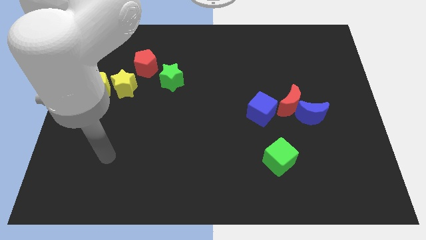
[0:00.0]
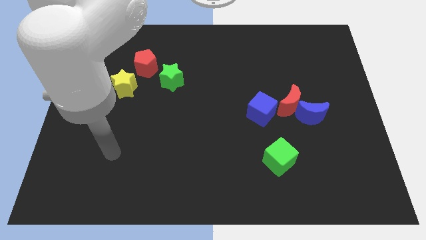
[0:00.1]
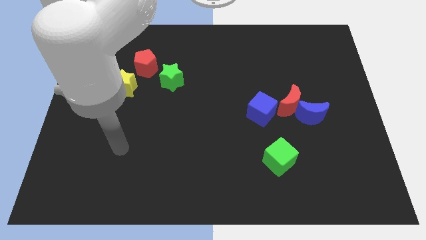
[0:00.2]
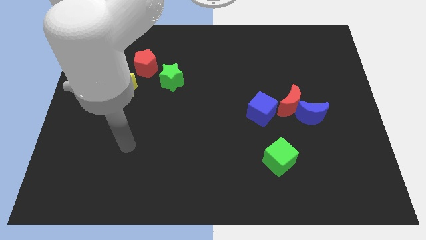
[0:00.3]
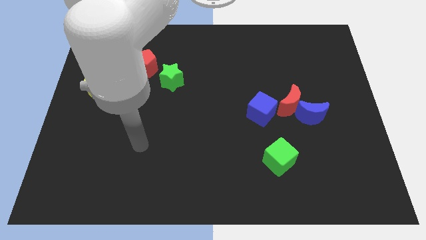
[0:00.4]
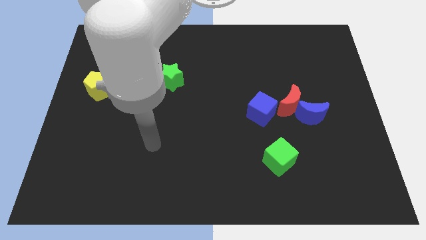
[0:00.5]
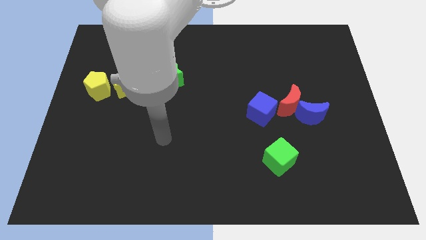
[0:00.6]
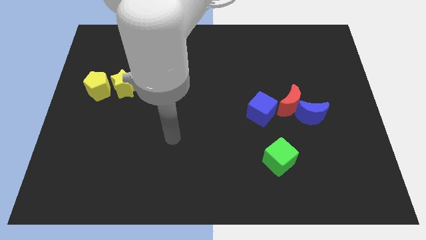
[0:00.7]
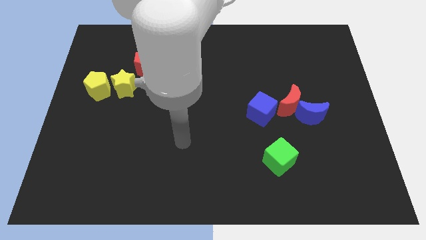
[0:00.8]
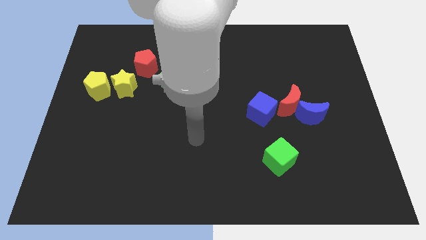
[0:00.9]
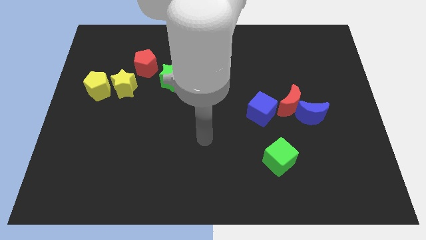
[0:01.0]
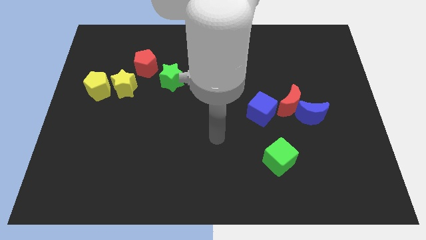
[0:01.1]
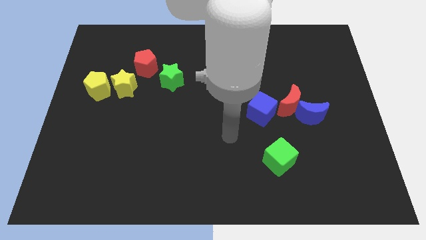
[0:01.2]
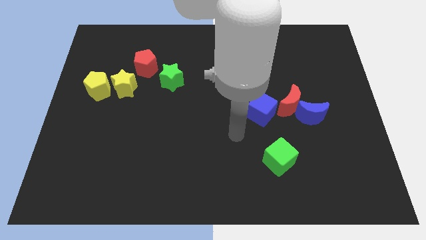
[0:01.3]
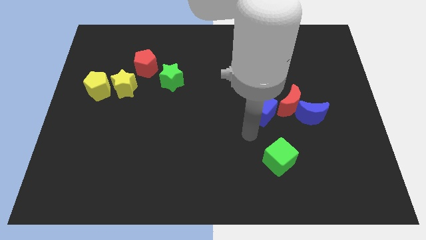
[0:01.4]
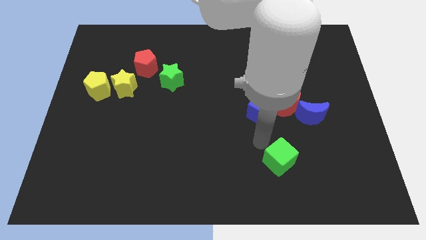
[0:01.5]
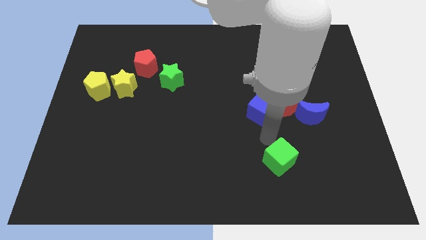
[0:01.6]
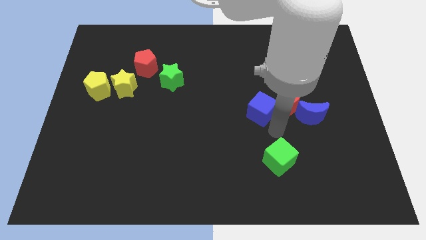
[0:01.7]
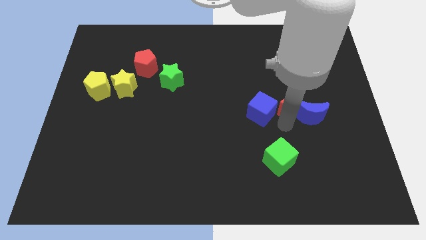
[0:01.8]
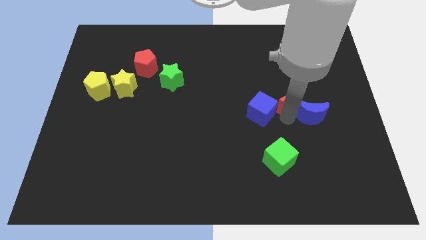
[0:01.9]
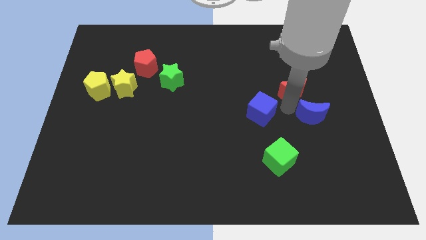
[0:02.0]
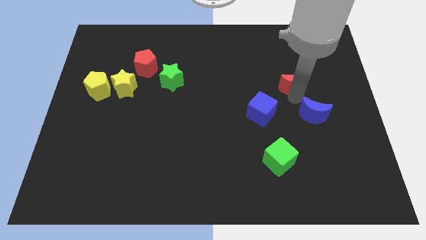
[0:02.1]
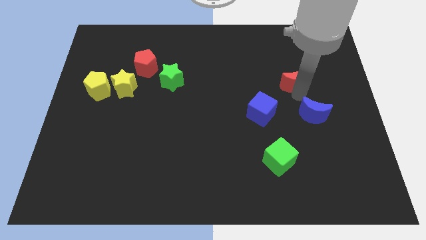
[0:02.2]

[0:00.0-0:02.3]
pull the blue moon apart from the red moon

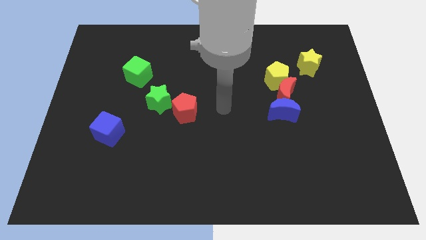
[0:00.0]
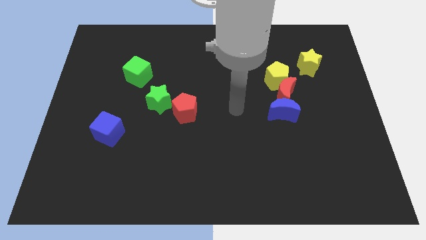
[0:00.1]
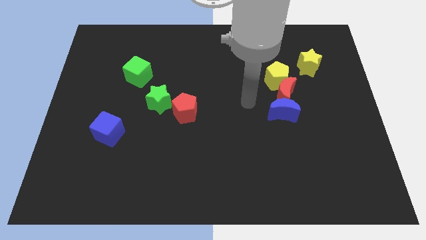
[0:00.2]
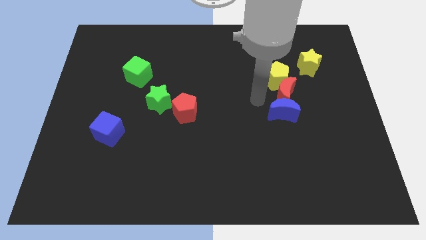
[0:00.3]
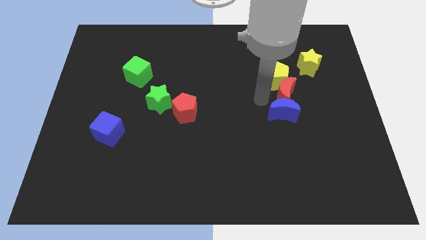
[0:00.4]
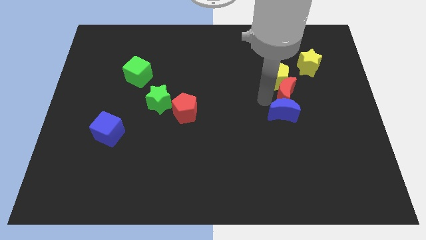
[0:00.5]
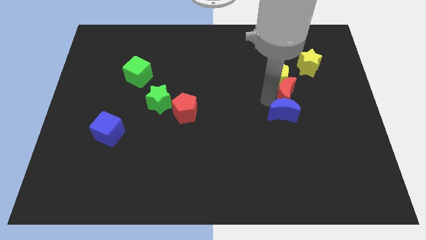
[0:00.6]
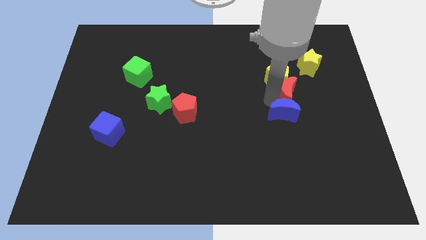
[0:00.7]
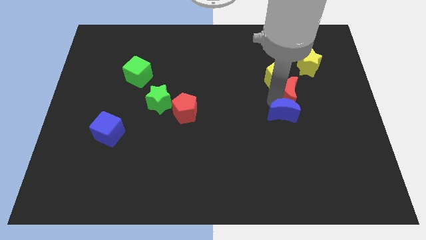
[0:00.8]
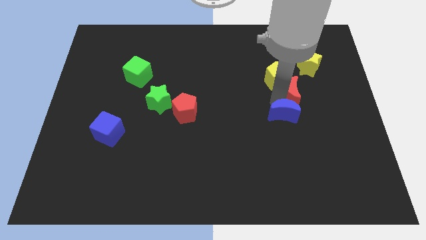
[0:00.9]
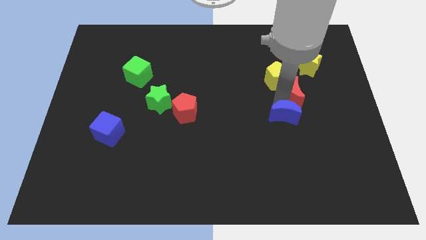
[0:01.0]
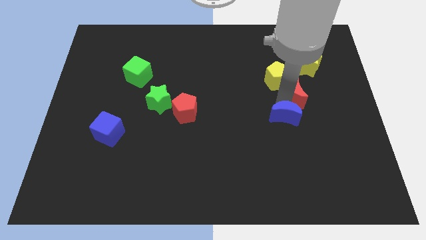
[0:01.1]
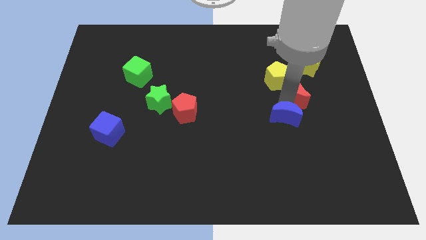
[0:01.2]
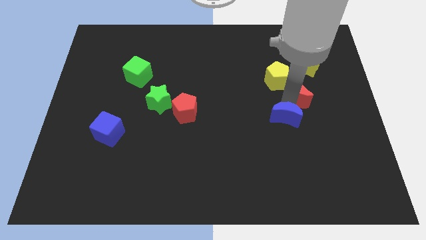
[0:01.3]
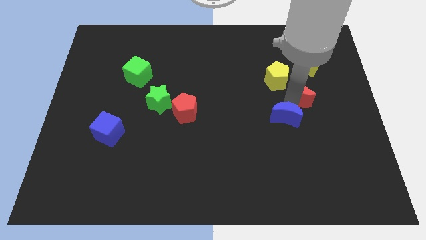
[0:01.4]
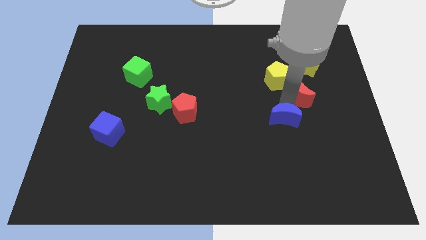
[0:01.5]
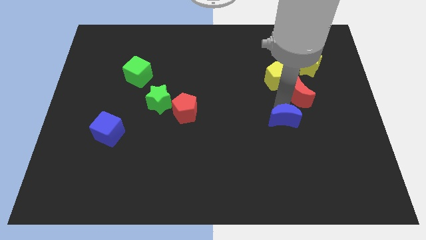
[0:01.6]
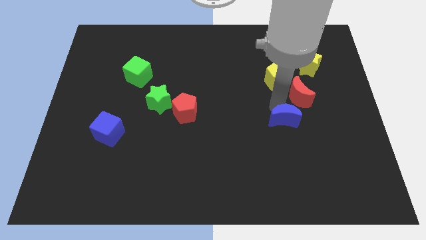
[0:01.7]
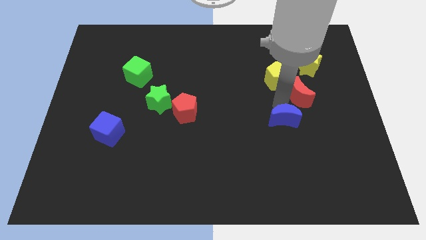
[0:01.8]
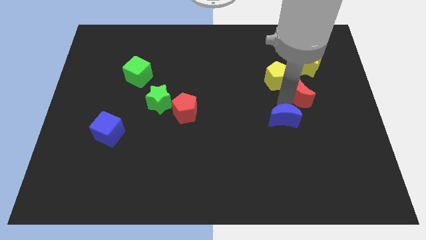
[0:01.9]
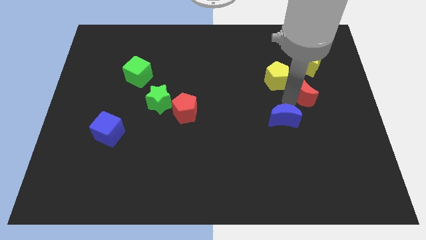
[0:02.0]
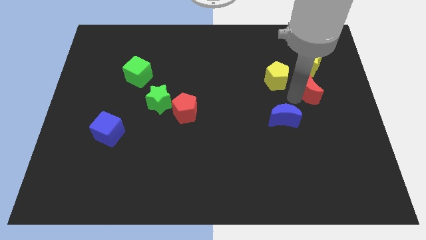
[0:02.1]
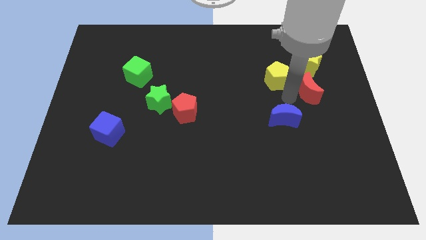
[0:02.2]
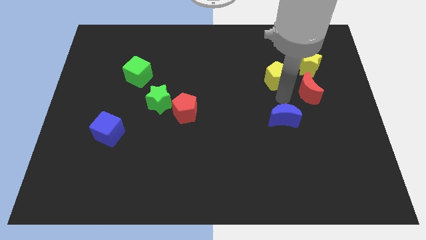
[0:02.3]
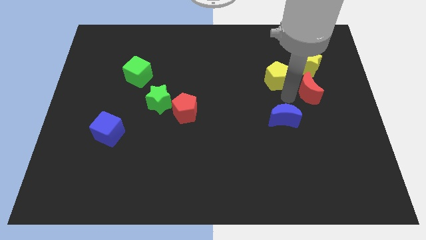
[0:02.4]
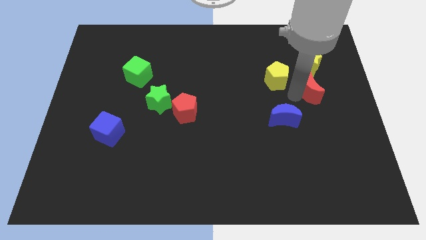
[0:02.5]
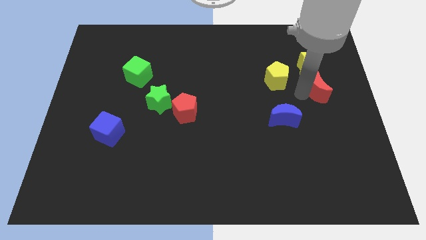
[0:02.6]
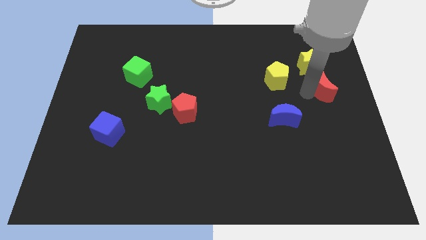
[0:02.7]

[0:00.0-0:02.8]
move the red moon away from the yellow pentagon and blue moon

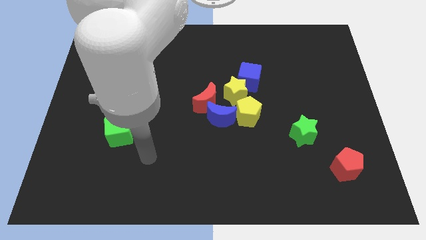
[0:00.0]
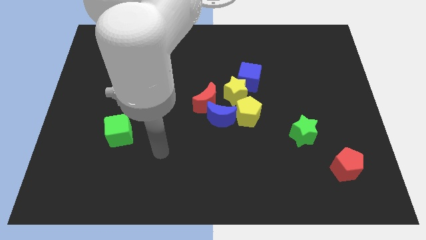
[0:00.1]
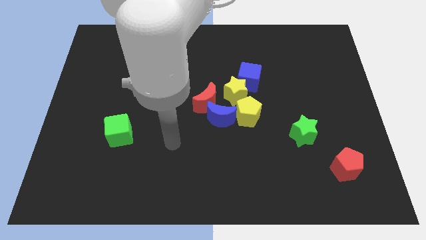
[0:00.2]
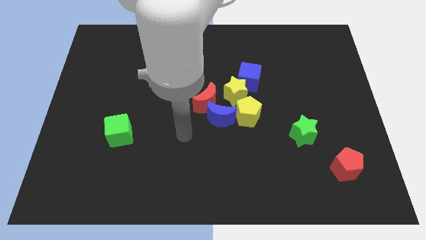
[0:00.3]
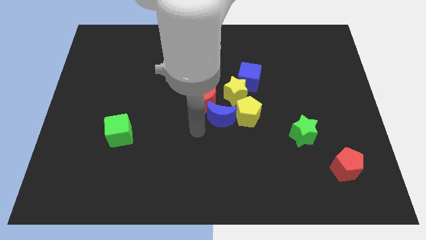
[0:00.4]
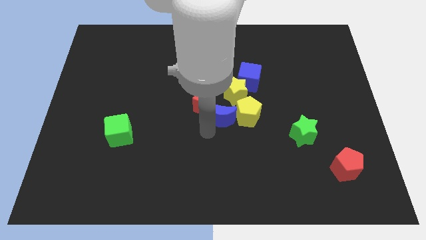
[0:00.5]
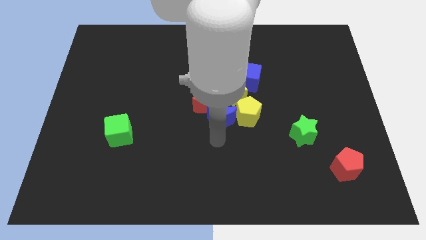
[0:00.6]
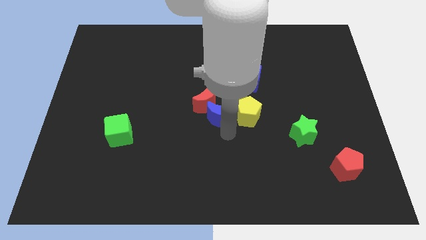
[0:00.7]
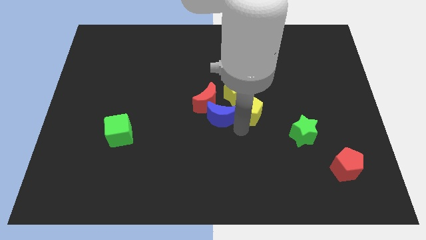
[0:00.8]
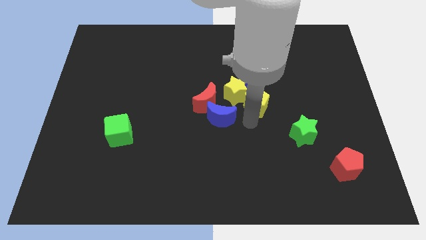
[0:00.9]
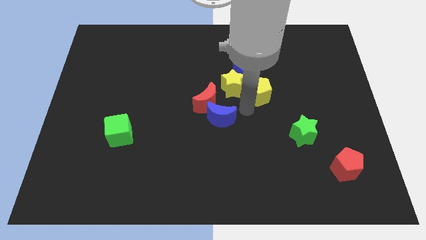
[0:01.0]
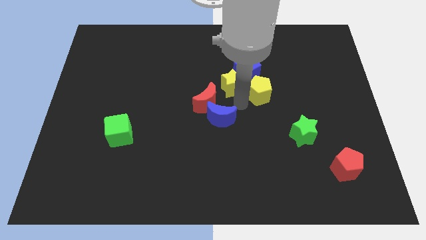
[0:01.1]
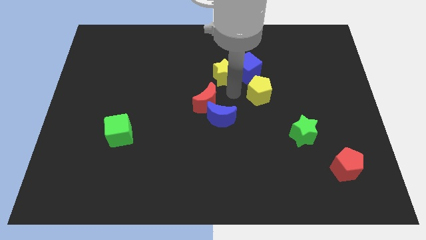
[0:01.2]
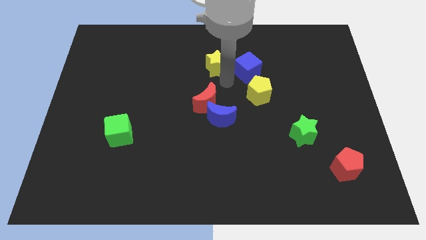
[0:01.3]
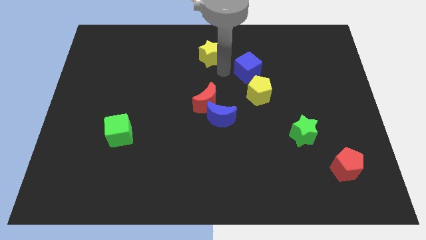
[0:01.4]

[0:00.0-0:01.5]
separate the blue cube from the yellow star

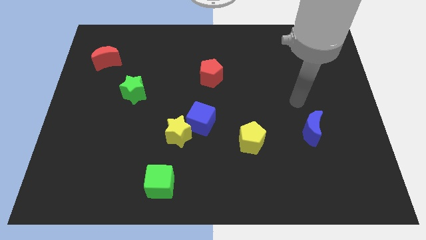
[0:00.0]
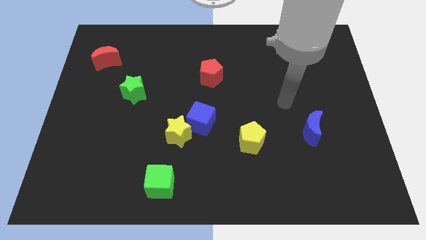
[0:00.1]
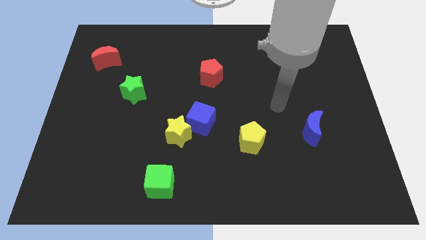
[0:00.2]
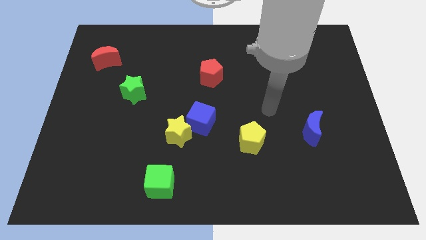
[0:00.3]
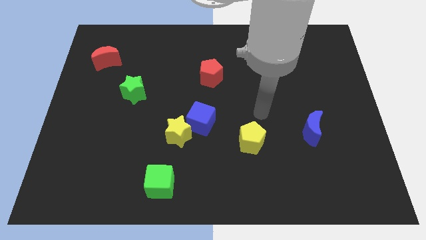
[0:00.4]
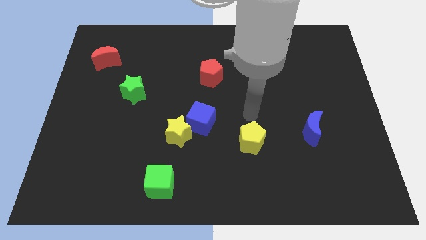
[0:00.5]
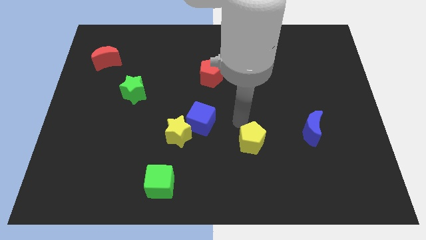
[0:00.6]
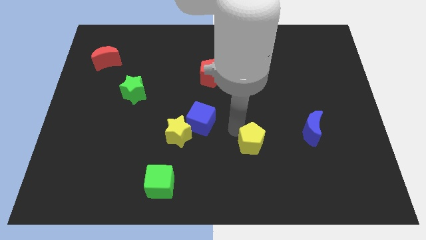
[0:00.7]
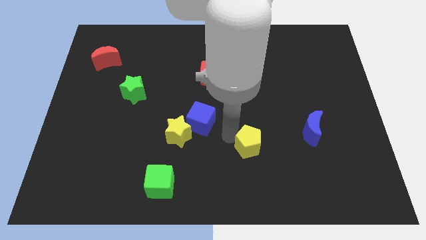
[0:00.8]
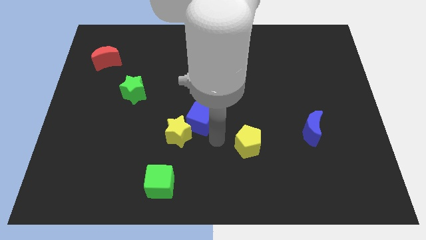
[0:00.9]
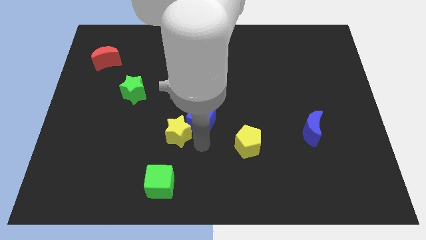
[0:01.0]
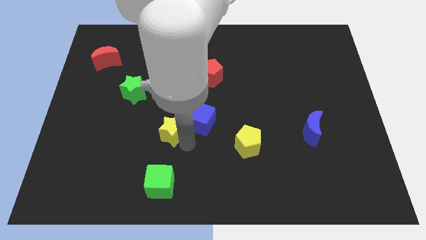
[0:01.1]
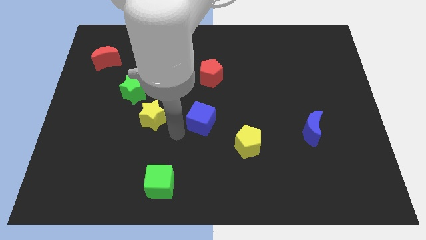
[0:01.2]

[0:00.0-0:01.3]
move the blue cube away from the yellow star

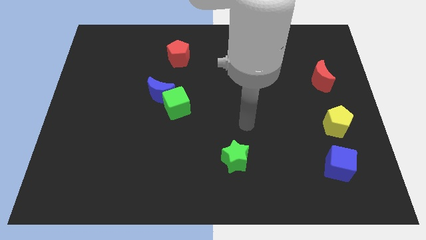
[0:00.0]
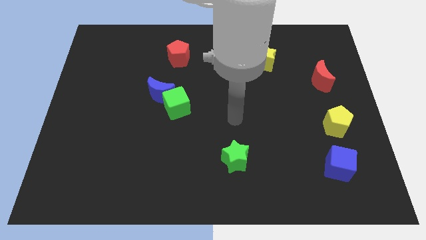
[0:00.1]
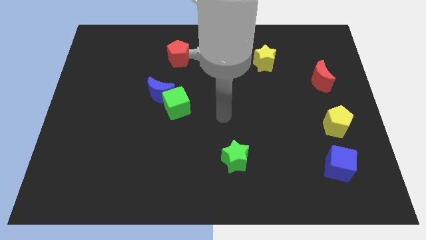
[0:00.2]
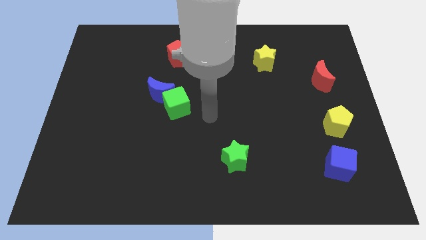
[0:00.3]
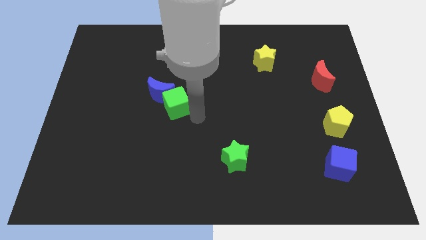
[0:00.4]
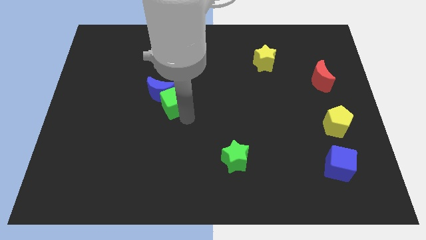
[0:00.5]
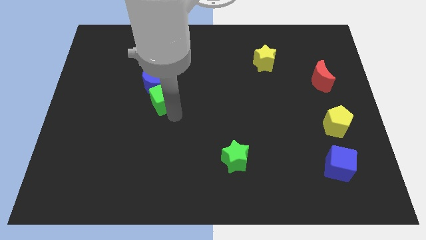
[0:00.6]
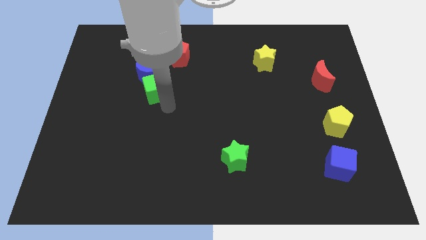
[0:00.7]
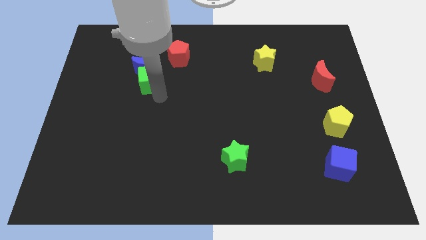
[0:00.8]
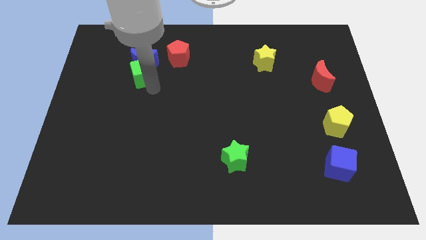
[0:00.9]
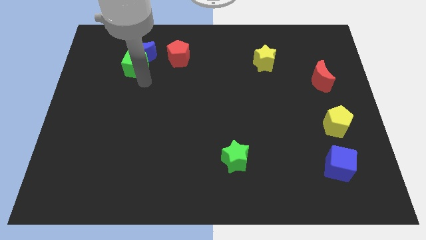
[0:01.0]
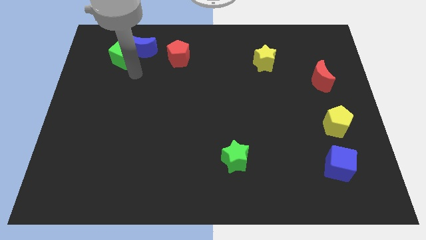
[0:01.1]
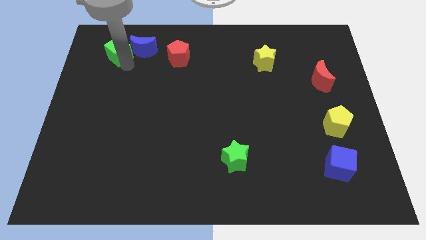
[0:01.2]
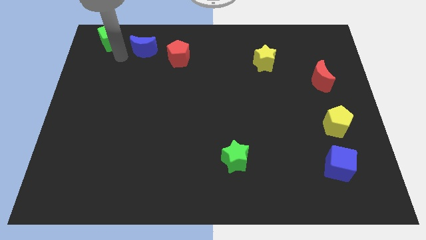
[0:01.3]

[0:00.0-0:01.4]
move the blue moon away from the green cube
